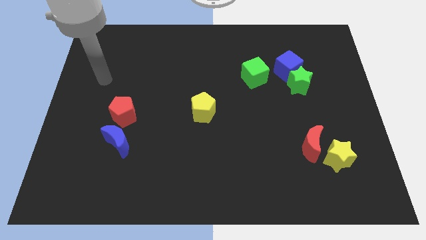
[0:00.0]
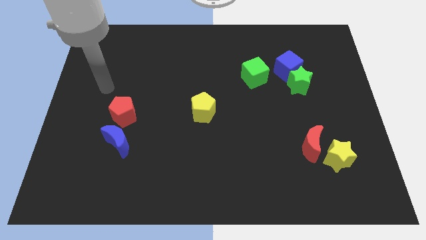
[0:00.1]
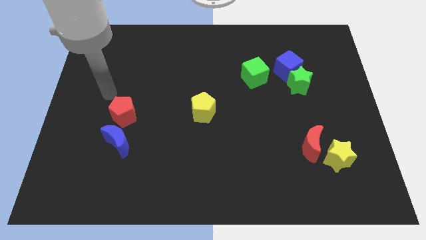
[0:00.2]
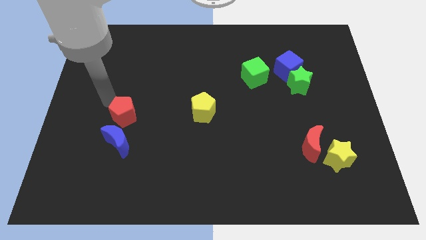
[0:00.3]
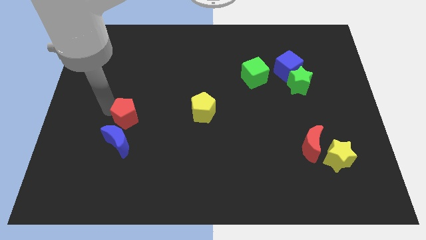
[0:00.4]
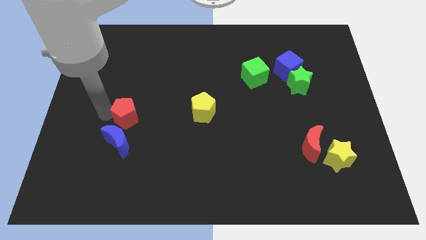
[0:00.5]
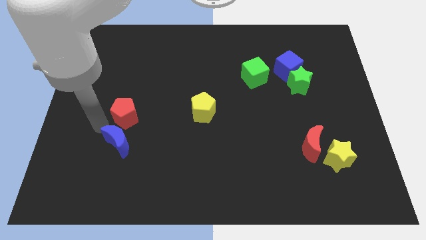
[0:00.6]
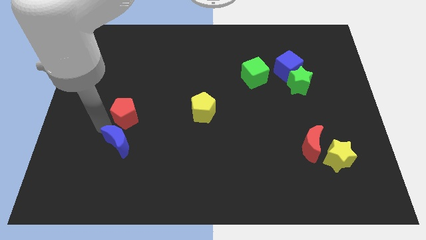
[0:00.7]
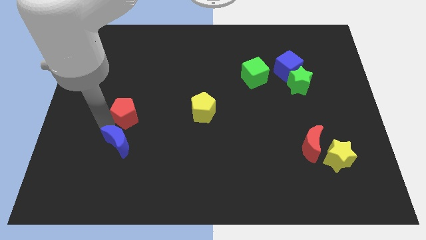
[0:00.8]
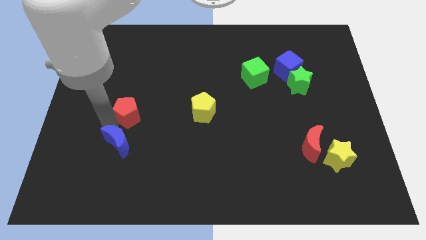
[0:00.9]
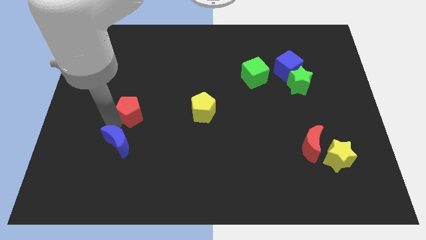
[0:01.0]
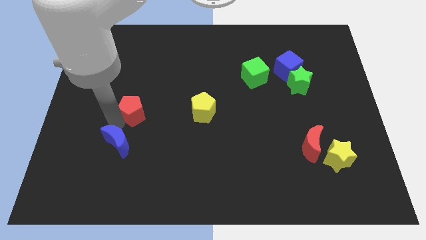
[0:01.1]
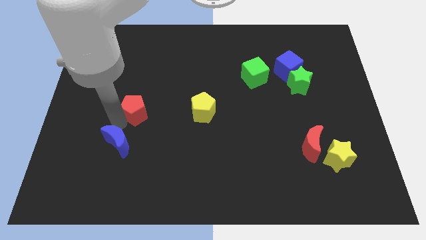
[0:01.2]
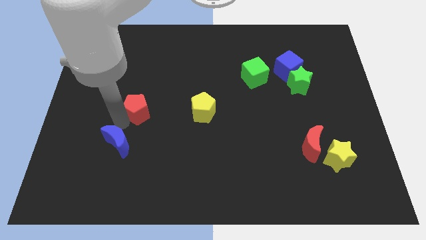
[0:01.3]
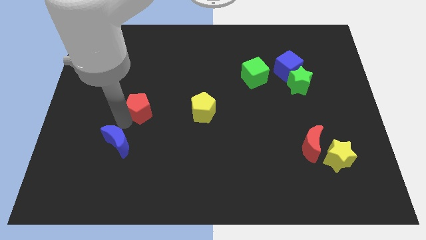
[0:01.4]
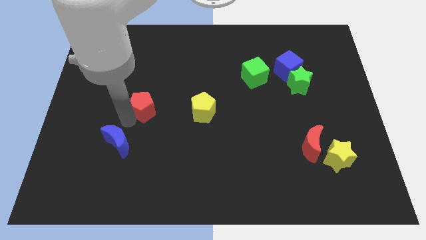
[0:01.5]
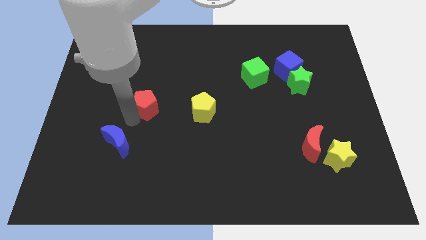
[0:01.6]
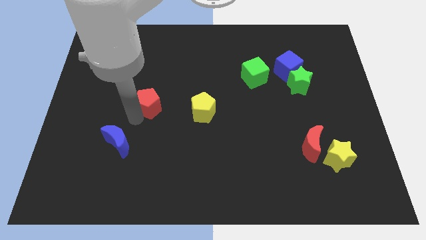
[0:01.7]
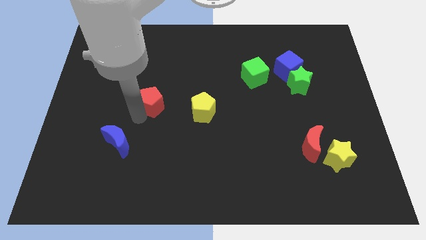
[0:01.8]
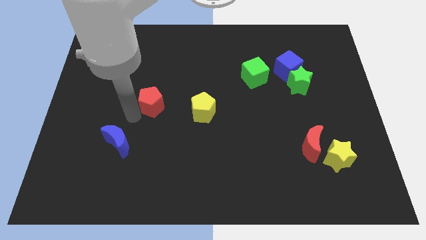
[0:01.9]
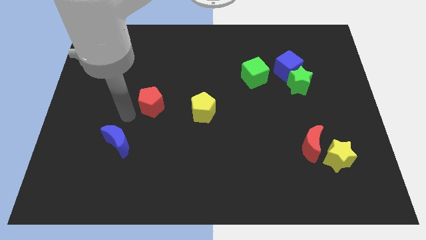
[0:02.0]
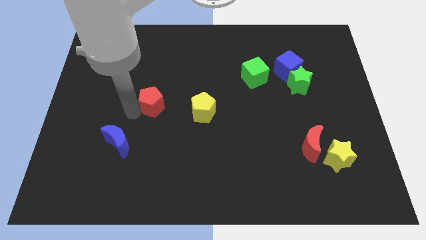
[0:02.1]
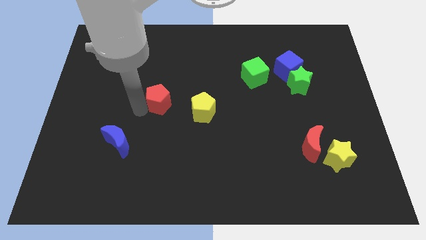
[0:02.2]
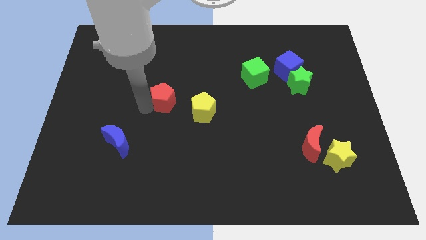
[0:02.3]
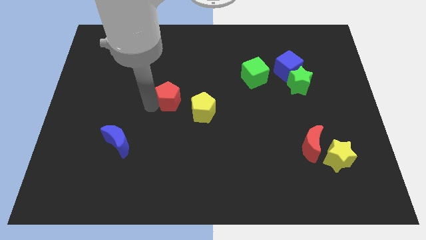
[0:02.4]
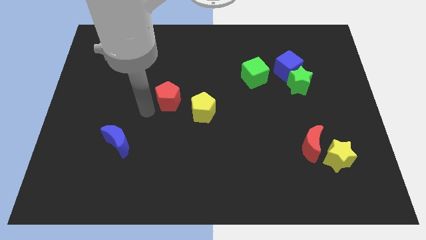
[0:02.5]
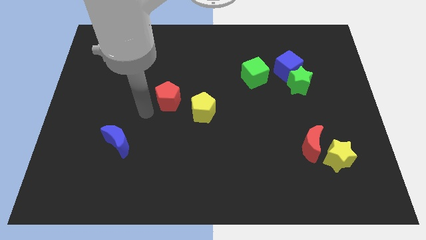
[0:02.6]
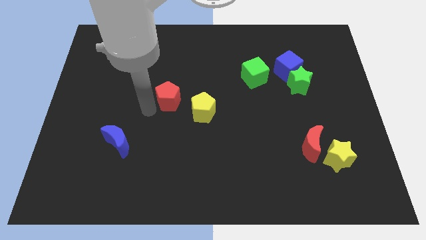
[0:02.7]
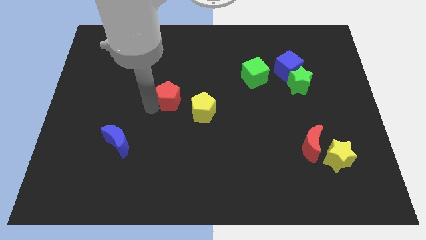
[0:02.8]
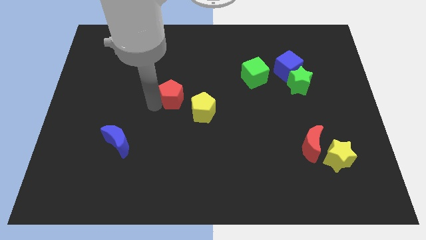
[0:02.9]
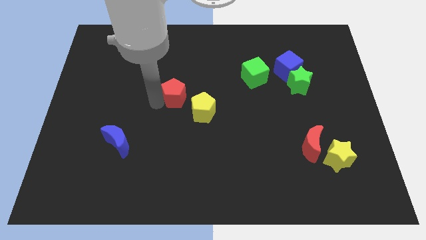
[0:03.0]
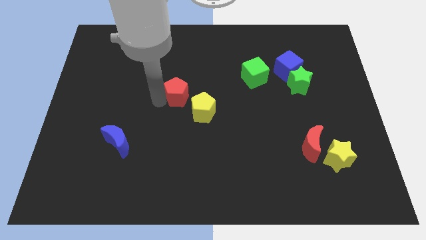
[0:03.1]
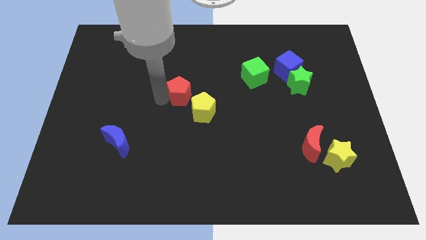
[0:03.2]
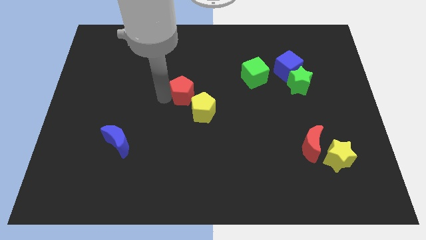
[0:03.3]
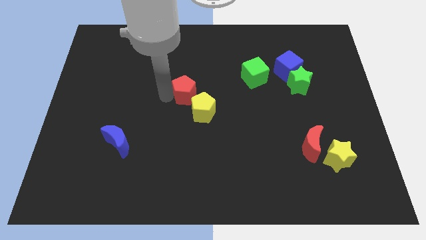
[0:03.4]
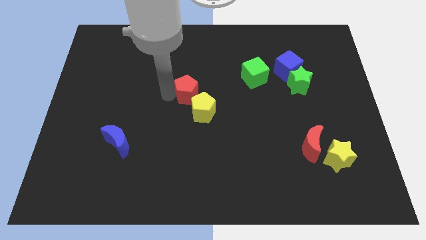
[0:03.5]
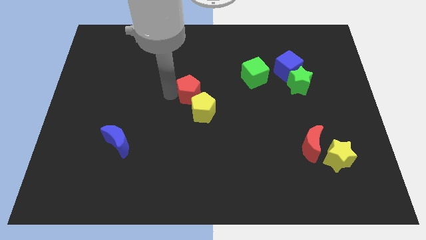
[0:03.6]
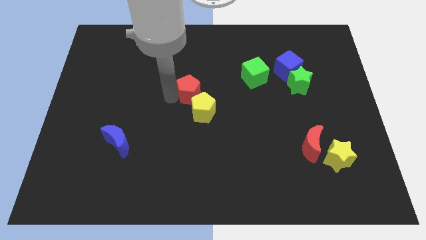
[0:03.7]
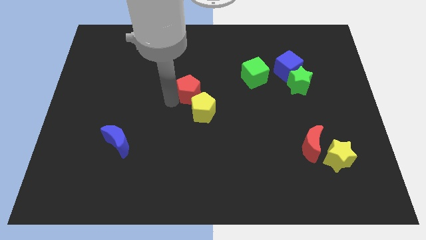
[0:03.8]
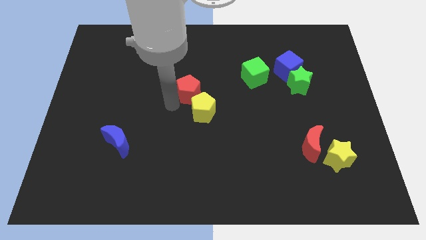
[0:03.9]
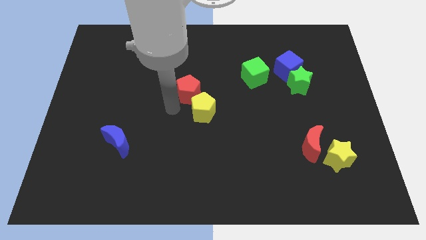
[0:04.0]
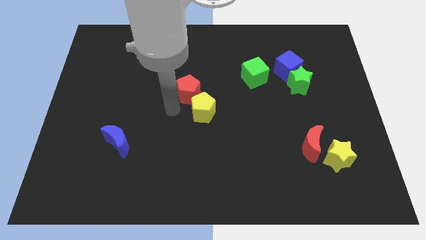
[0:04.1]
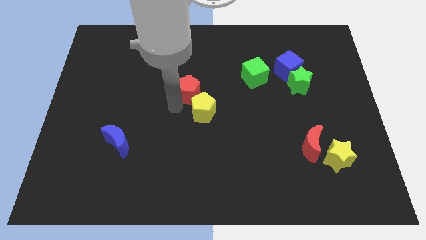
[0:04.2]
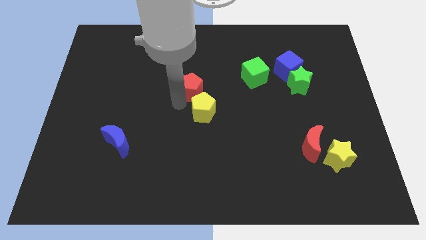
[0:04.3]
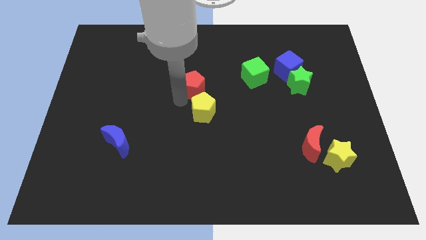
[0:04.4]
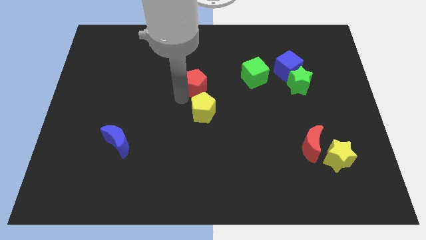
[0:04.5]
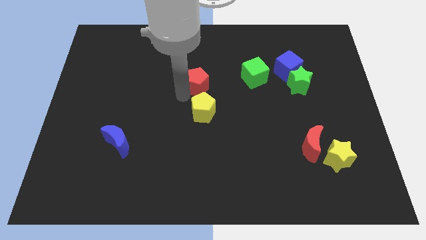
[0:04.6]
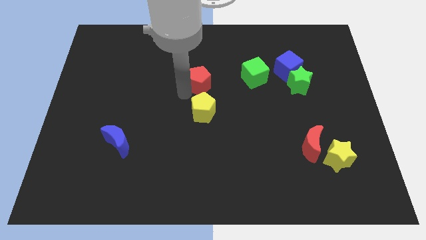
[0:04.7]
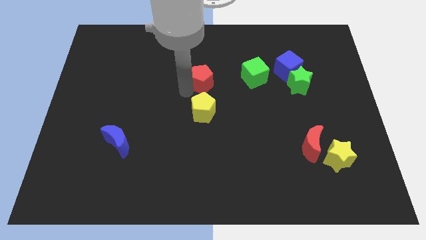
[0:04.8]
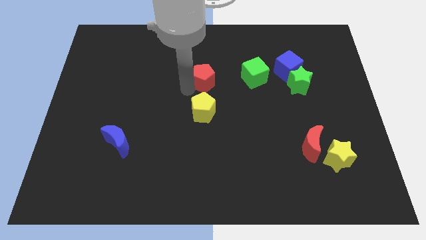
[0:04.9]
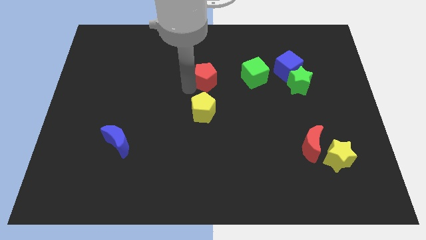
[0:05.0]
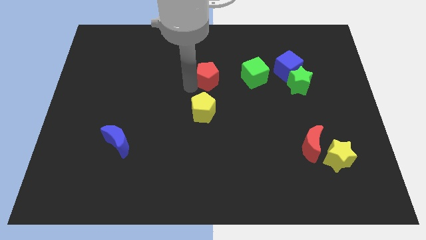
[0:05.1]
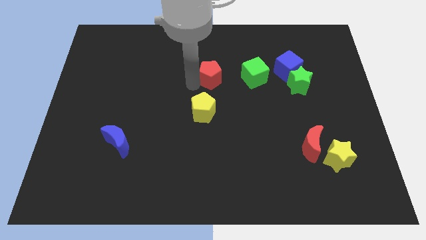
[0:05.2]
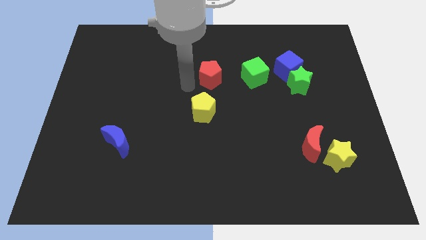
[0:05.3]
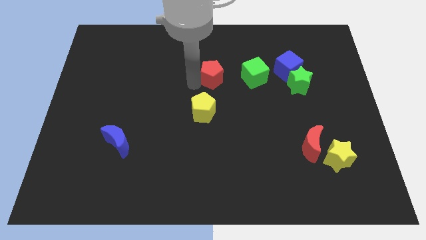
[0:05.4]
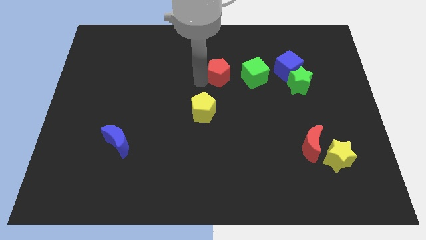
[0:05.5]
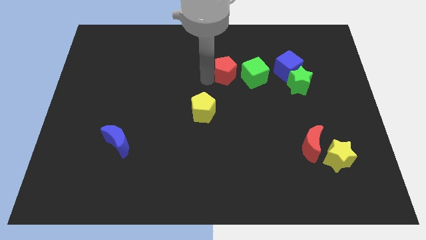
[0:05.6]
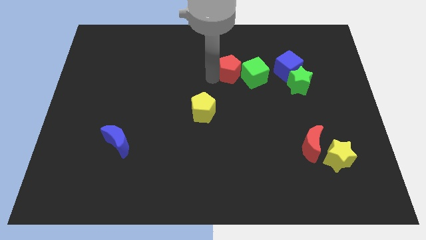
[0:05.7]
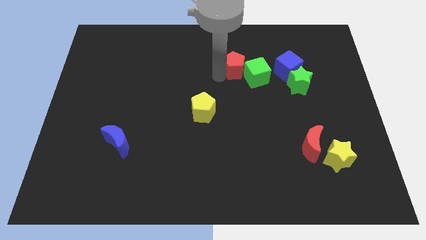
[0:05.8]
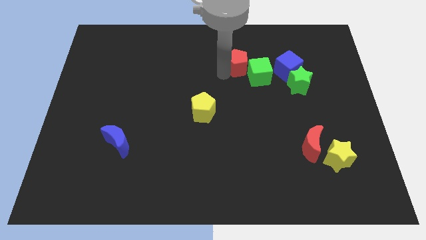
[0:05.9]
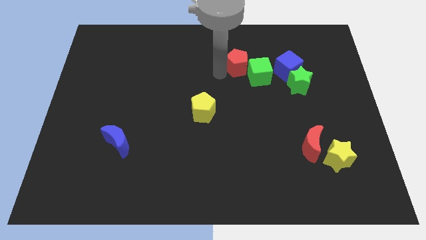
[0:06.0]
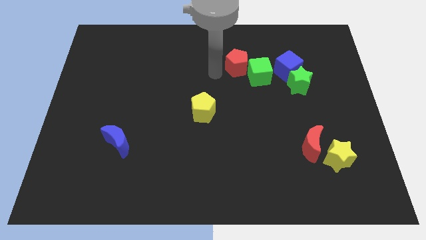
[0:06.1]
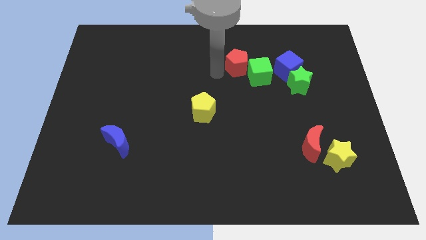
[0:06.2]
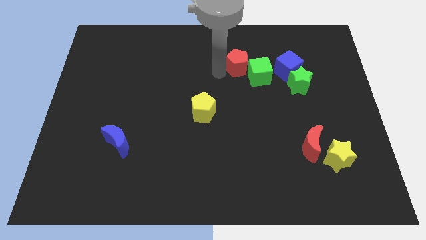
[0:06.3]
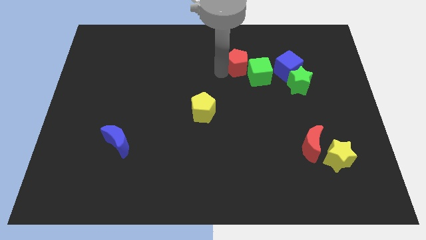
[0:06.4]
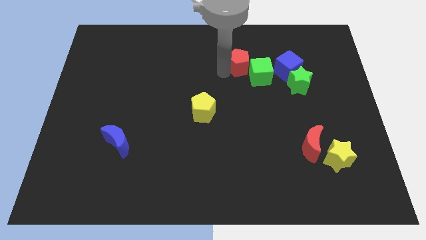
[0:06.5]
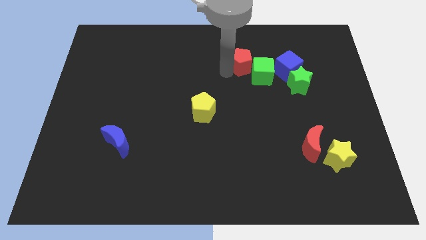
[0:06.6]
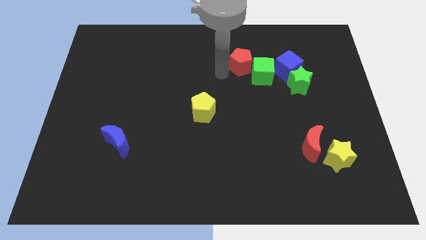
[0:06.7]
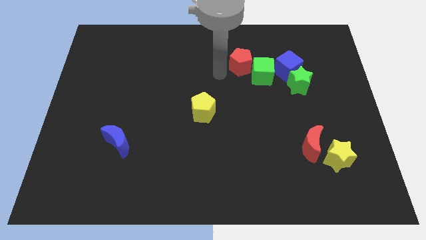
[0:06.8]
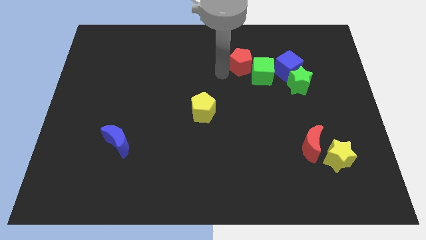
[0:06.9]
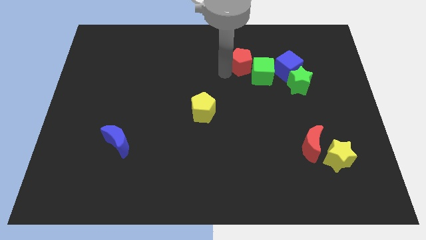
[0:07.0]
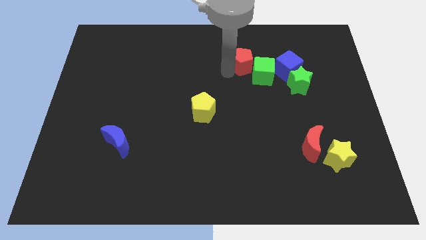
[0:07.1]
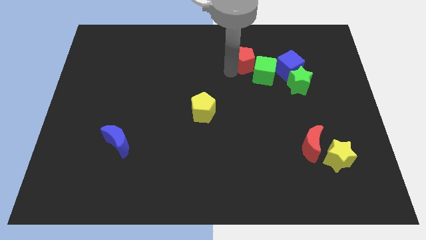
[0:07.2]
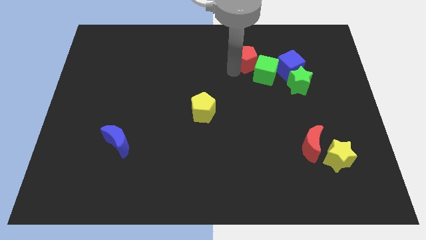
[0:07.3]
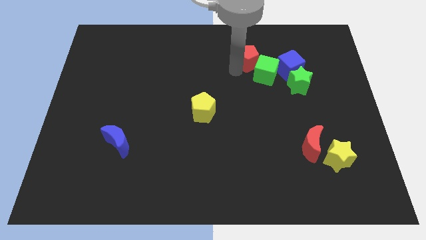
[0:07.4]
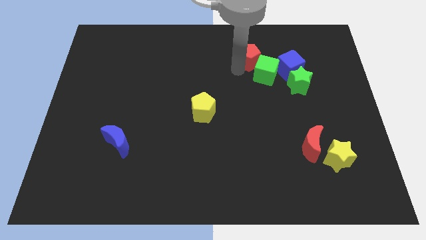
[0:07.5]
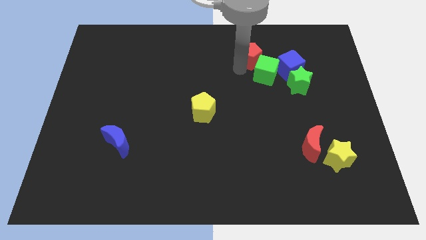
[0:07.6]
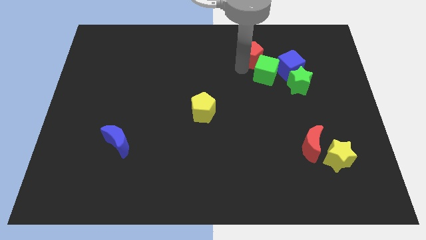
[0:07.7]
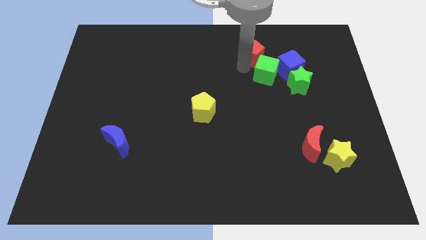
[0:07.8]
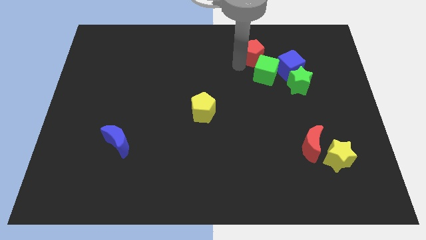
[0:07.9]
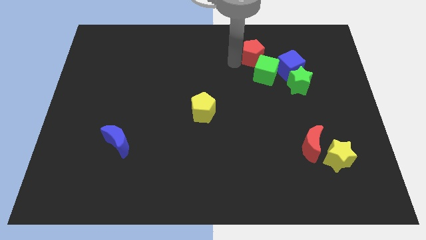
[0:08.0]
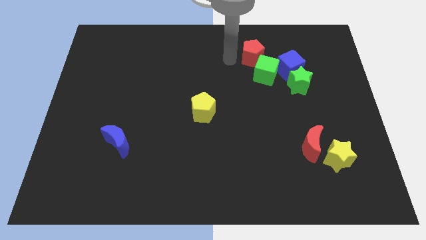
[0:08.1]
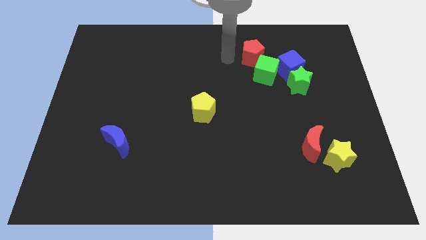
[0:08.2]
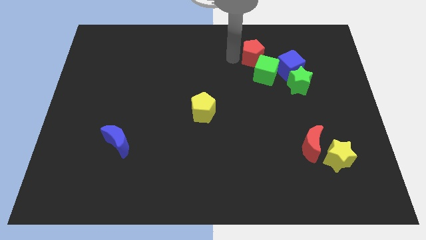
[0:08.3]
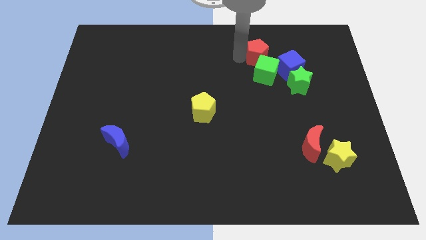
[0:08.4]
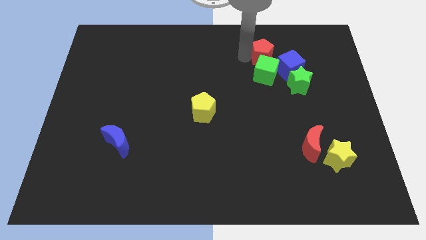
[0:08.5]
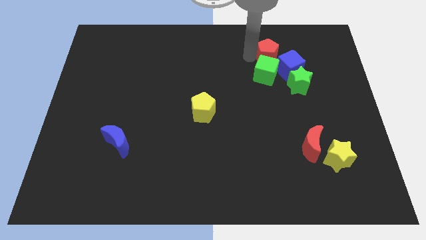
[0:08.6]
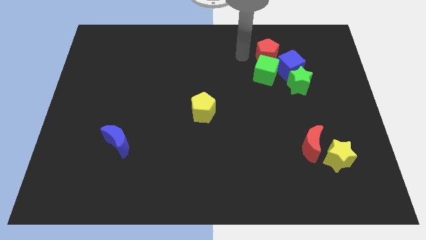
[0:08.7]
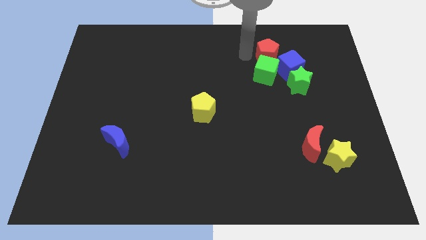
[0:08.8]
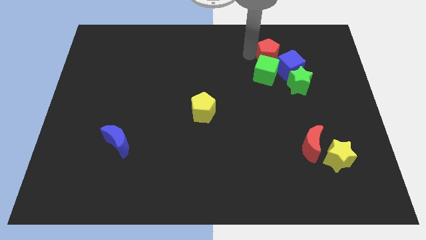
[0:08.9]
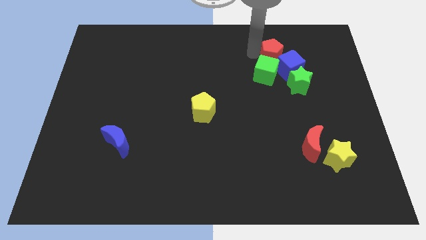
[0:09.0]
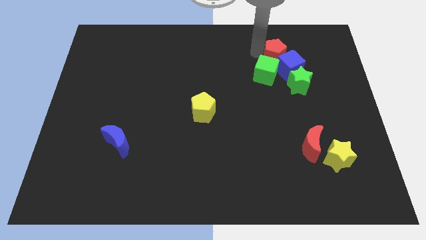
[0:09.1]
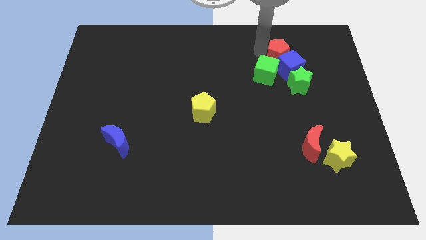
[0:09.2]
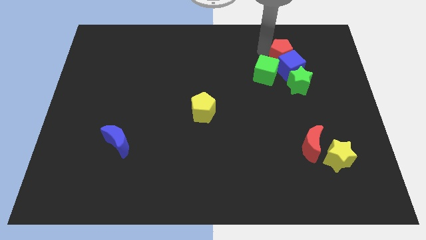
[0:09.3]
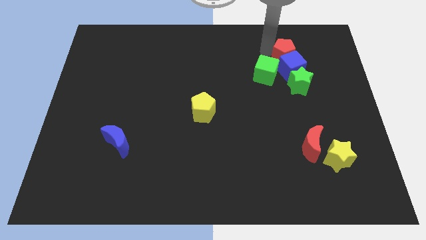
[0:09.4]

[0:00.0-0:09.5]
slide the red pentagon diagonally up and to the right of the blue cube
